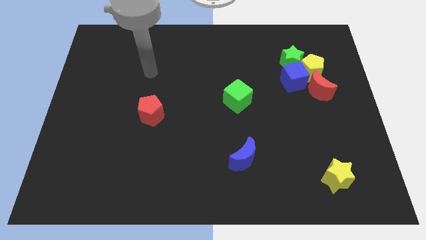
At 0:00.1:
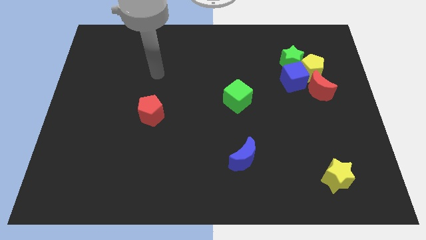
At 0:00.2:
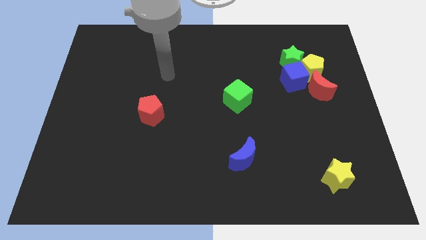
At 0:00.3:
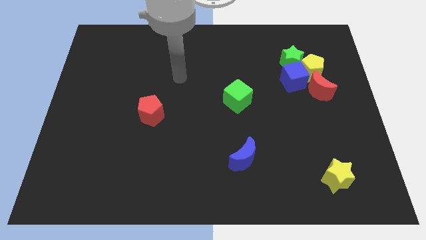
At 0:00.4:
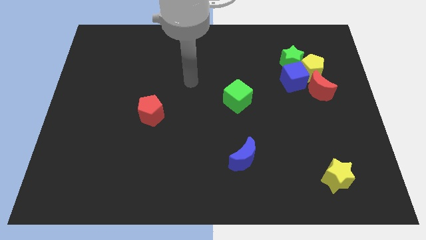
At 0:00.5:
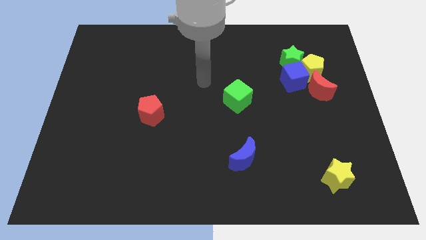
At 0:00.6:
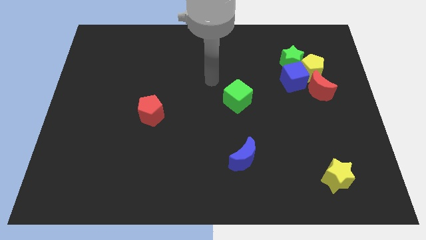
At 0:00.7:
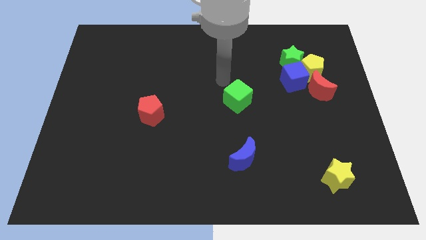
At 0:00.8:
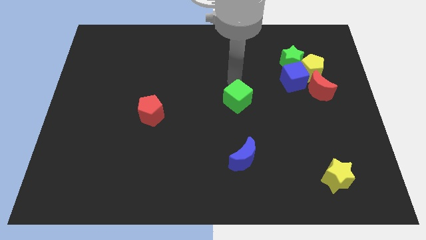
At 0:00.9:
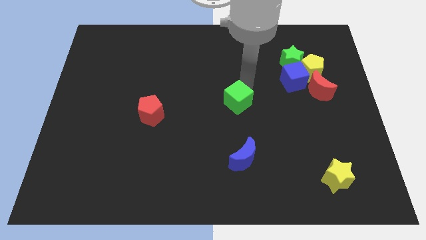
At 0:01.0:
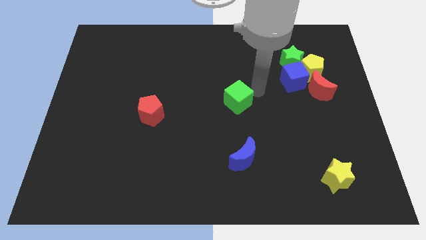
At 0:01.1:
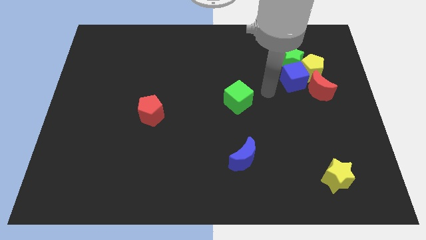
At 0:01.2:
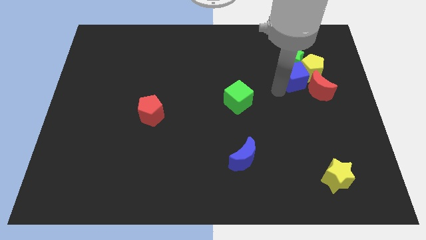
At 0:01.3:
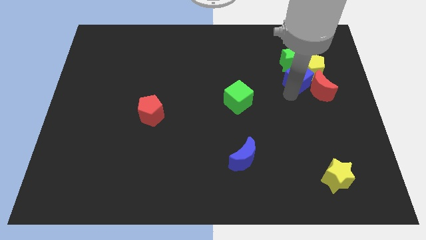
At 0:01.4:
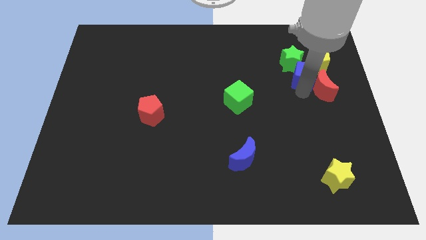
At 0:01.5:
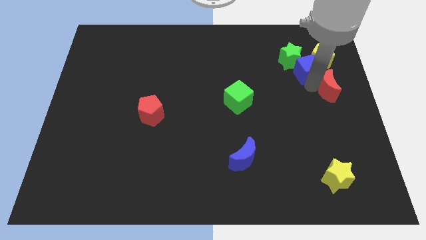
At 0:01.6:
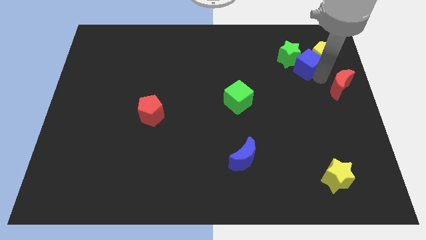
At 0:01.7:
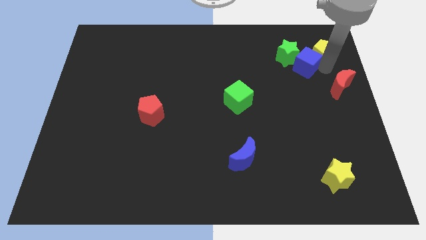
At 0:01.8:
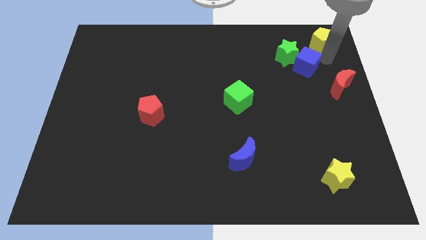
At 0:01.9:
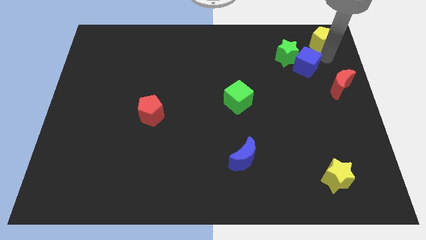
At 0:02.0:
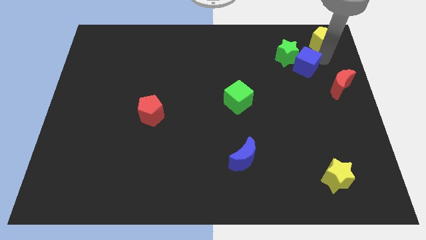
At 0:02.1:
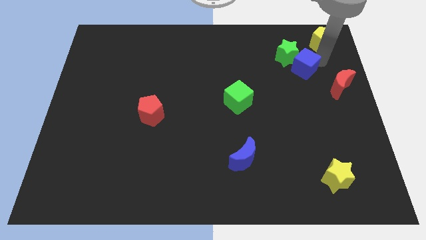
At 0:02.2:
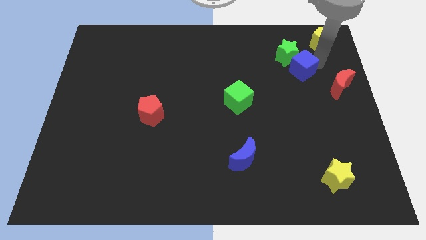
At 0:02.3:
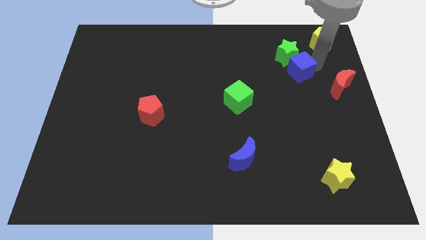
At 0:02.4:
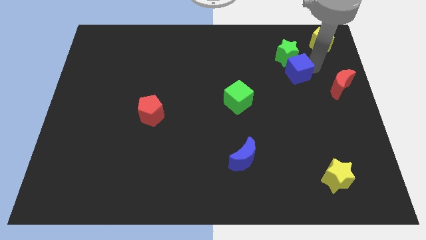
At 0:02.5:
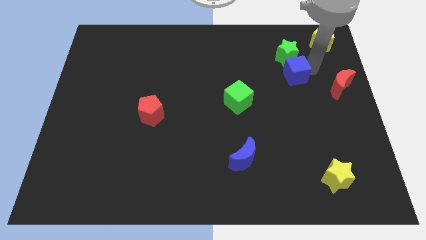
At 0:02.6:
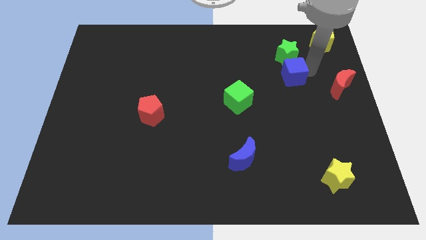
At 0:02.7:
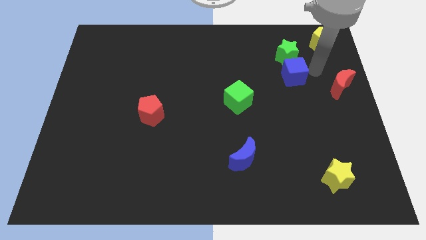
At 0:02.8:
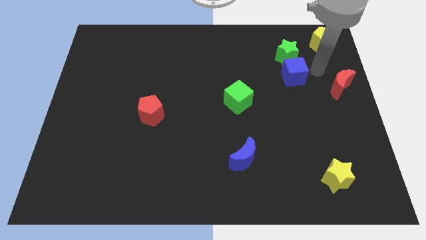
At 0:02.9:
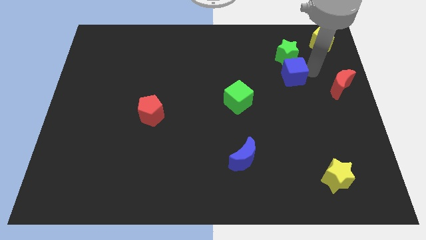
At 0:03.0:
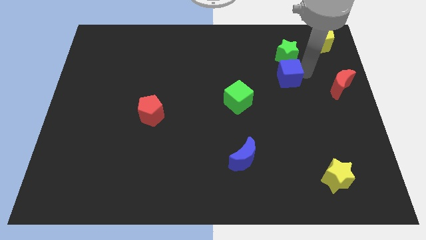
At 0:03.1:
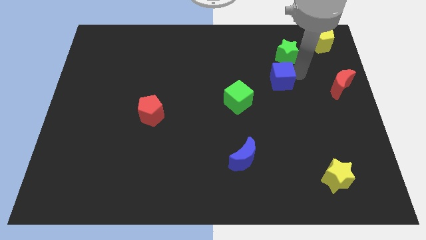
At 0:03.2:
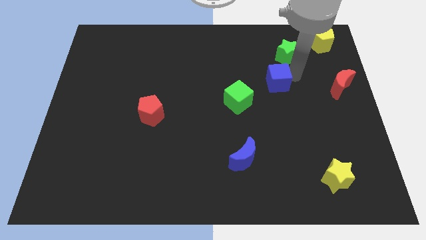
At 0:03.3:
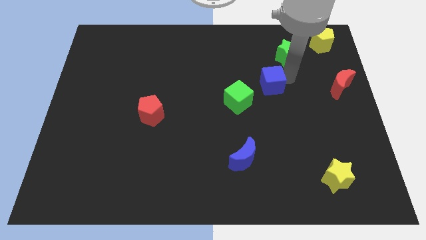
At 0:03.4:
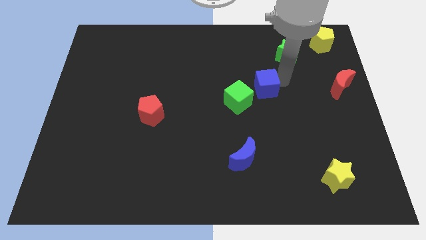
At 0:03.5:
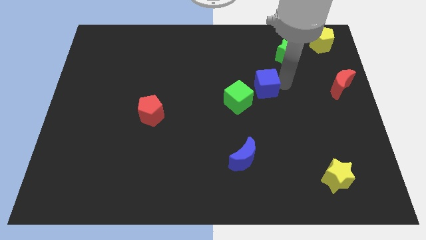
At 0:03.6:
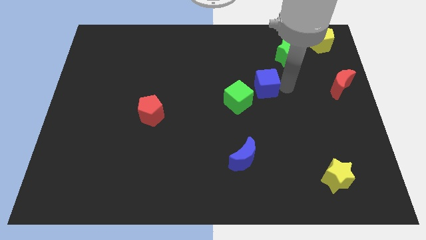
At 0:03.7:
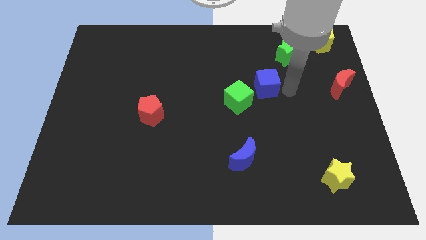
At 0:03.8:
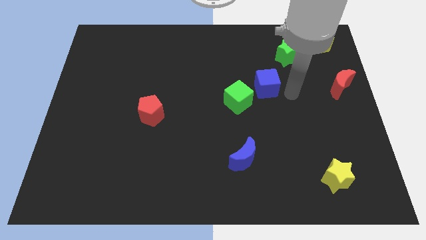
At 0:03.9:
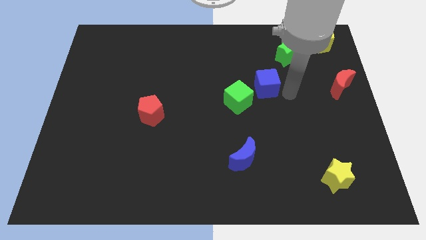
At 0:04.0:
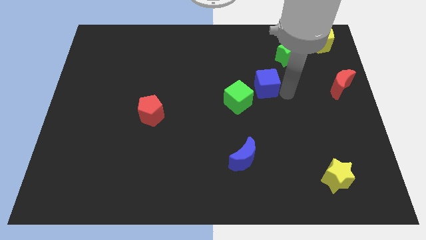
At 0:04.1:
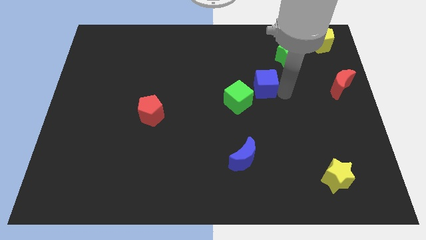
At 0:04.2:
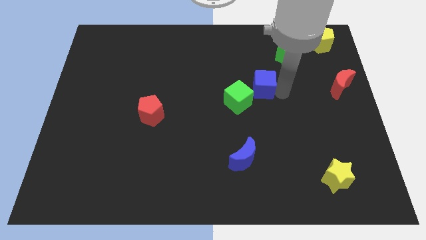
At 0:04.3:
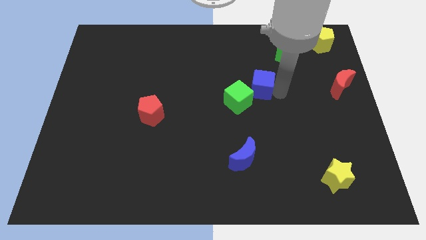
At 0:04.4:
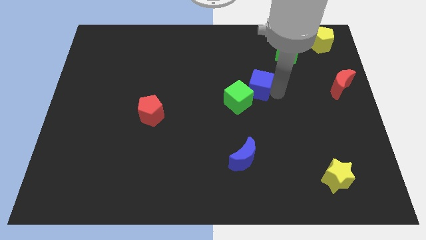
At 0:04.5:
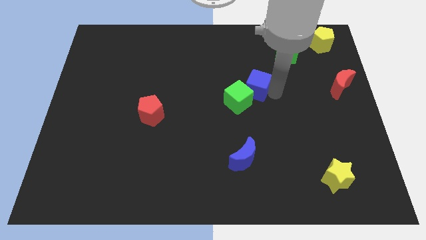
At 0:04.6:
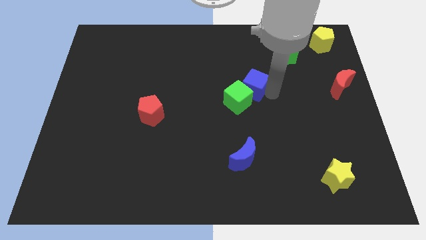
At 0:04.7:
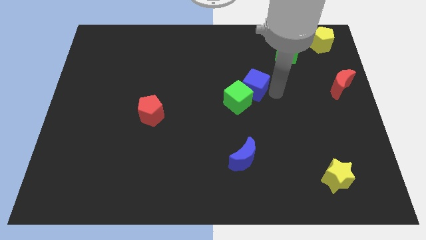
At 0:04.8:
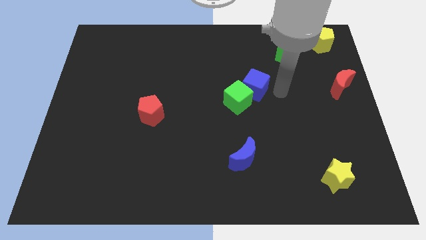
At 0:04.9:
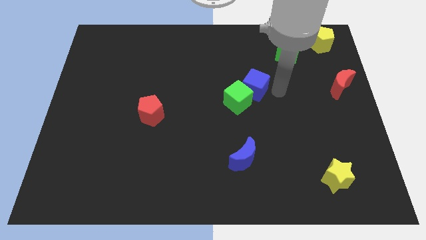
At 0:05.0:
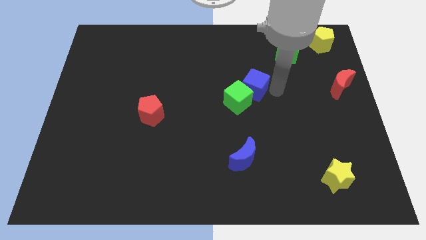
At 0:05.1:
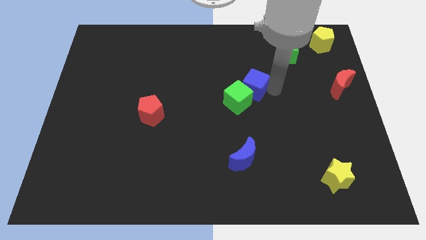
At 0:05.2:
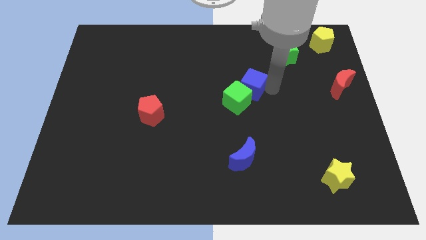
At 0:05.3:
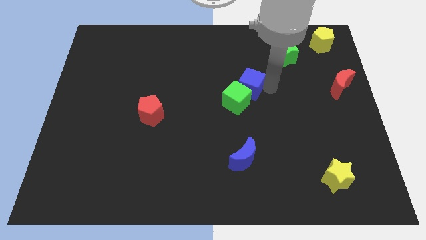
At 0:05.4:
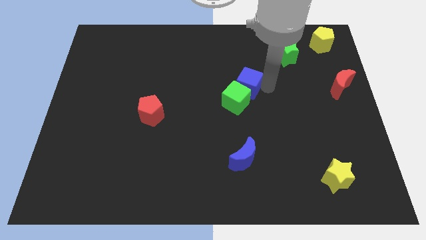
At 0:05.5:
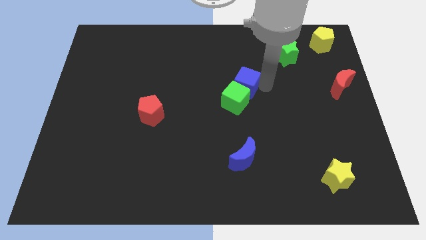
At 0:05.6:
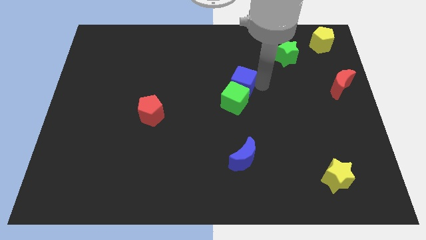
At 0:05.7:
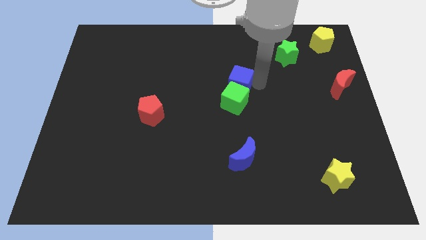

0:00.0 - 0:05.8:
slide the blue cube to the top left of the green cube

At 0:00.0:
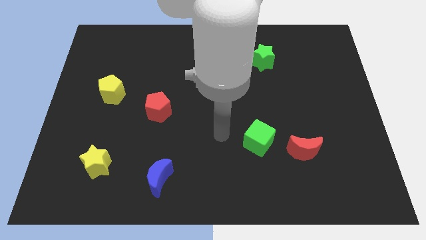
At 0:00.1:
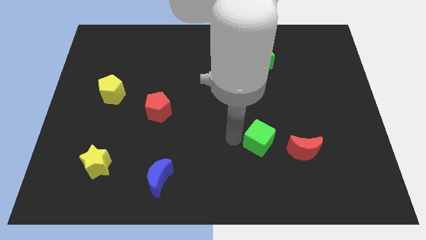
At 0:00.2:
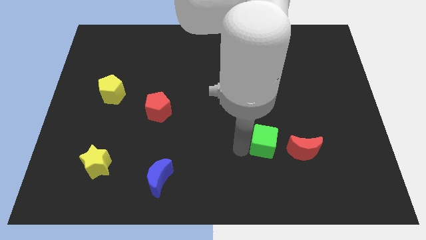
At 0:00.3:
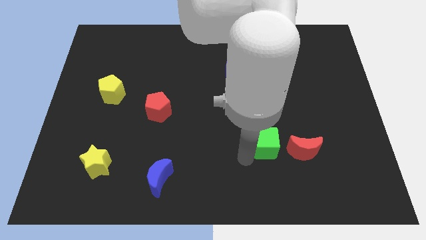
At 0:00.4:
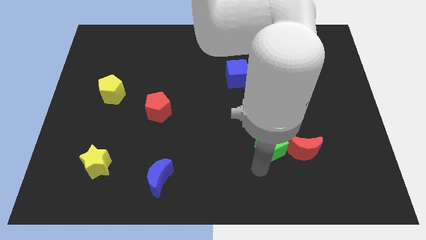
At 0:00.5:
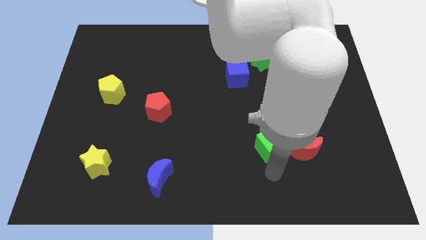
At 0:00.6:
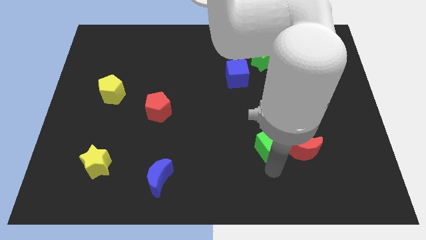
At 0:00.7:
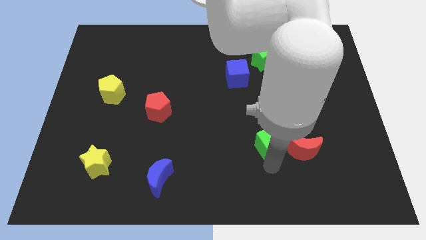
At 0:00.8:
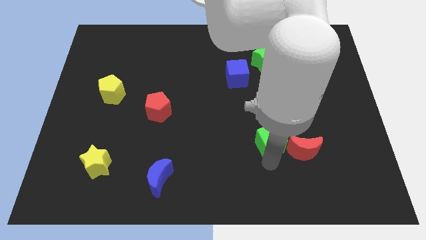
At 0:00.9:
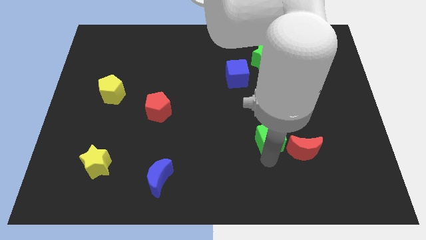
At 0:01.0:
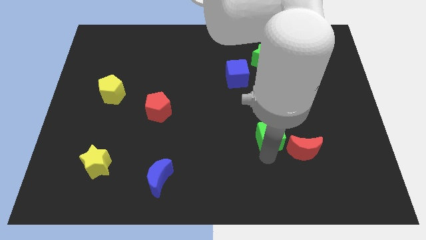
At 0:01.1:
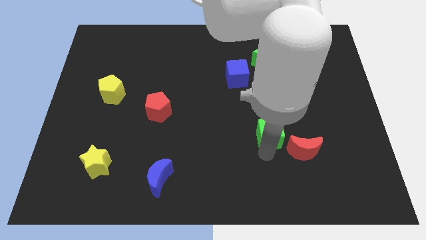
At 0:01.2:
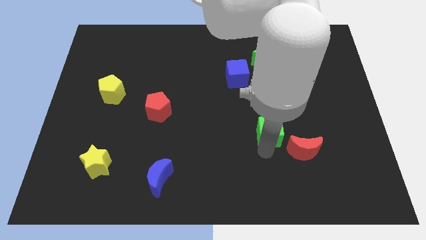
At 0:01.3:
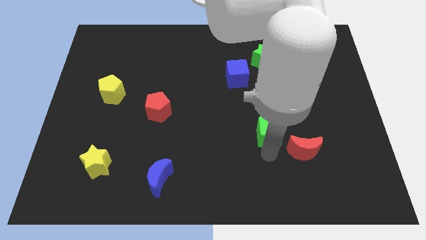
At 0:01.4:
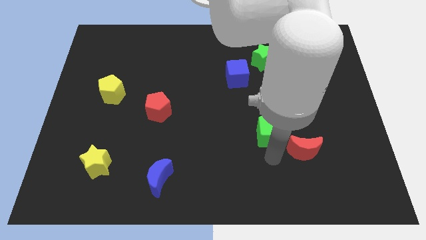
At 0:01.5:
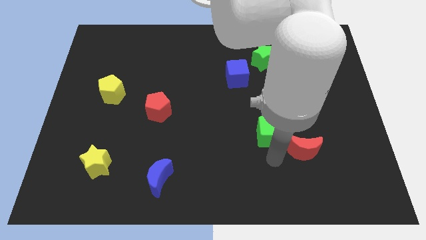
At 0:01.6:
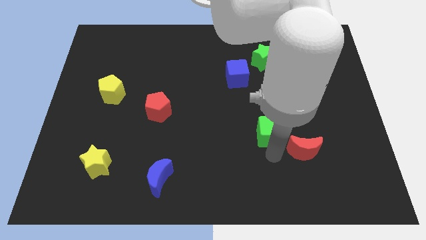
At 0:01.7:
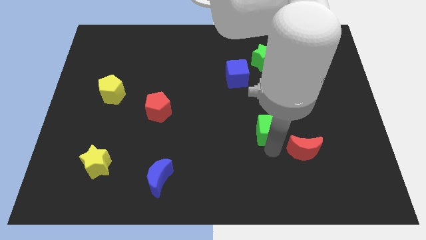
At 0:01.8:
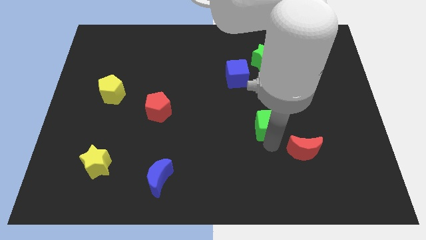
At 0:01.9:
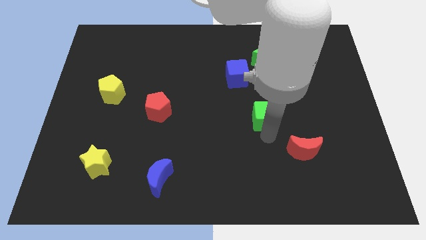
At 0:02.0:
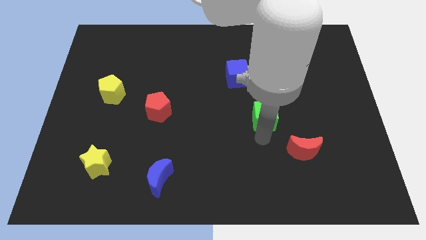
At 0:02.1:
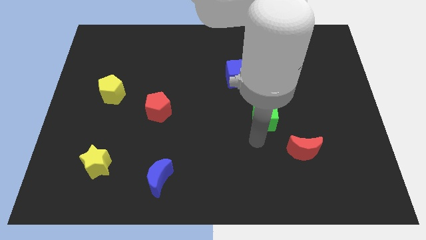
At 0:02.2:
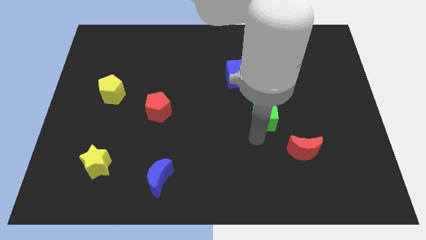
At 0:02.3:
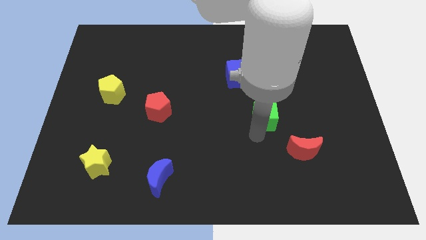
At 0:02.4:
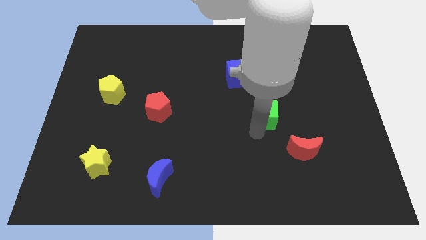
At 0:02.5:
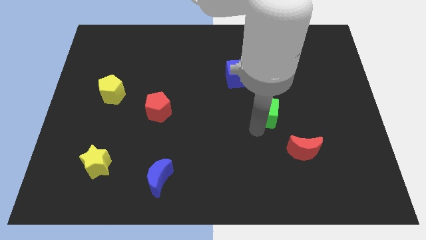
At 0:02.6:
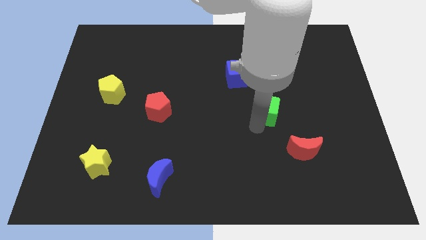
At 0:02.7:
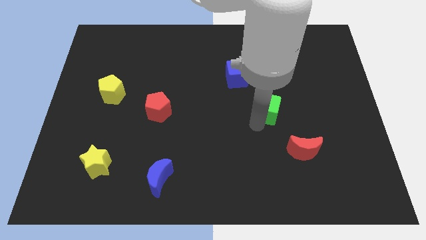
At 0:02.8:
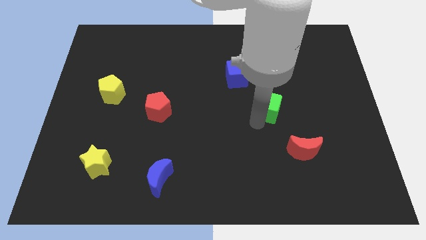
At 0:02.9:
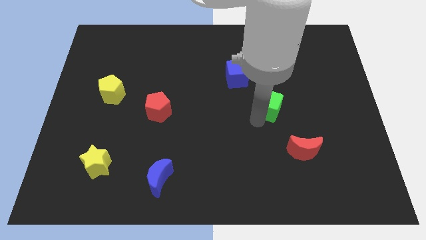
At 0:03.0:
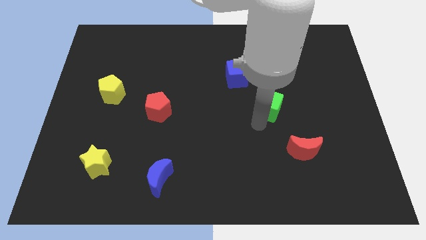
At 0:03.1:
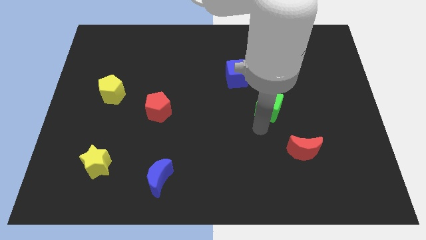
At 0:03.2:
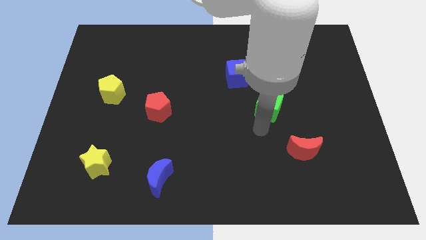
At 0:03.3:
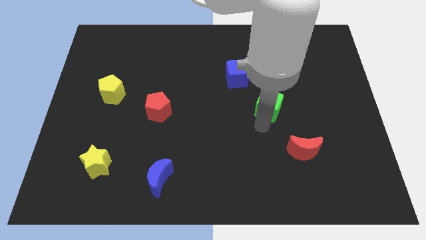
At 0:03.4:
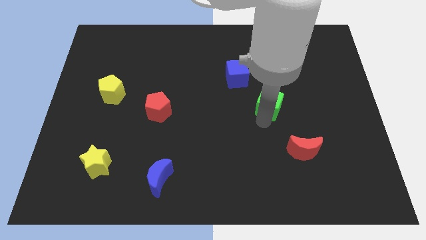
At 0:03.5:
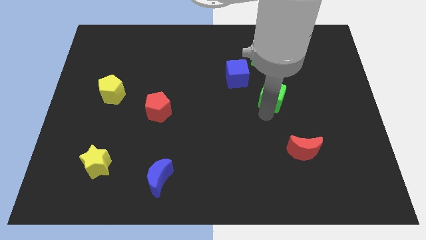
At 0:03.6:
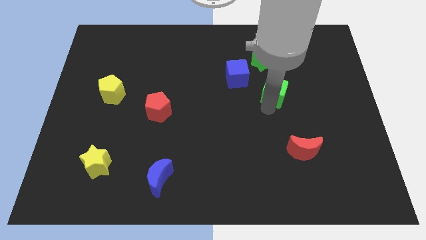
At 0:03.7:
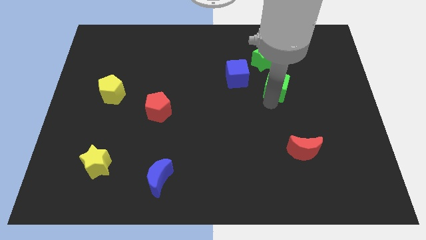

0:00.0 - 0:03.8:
push the green cube right of the blue cube
